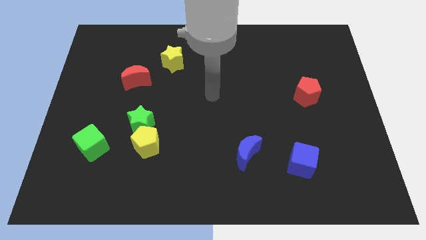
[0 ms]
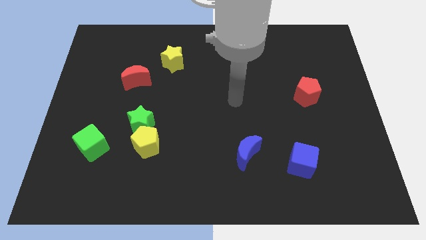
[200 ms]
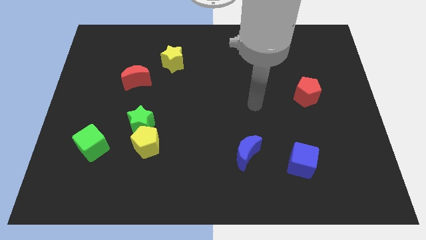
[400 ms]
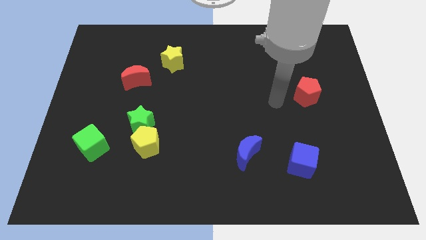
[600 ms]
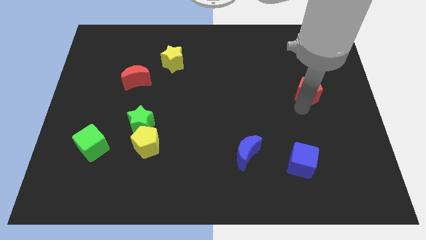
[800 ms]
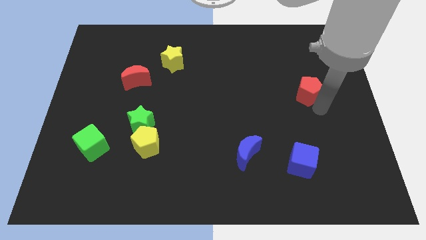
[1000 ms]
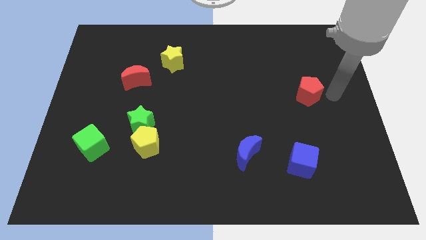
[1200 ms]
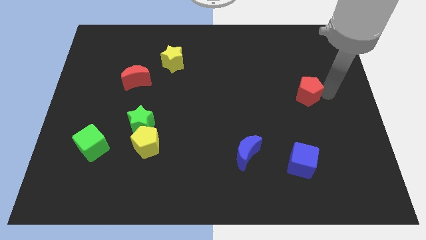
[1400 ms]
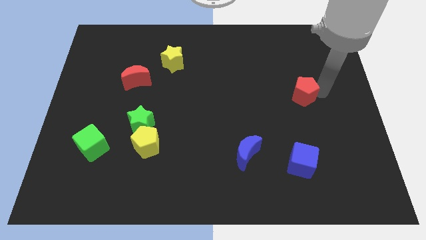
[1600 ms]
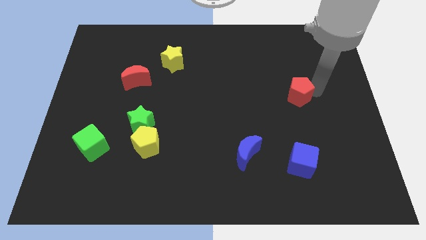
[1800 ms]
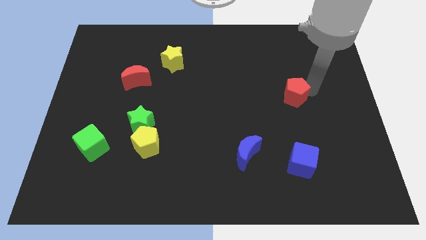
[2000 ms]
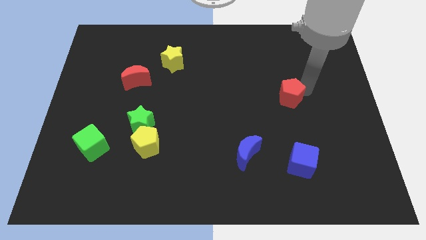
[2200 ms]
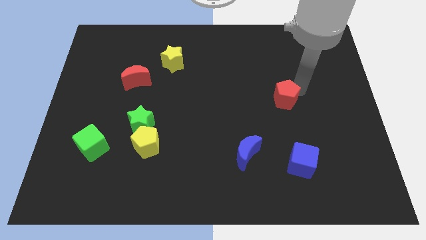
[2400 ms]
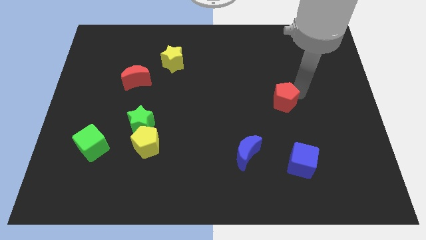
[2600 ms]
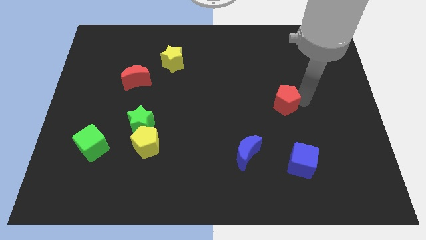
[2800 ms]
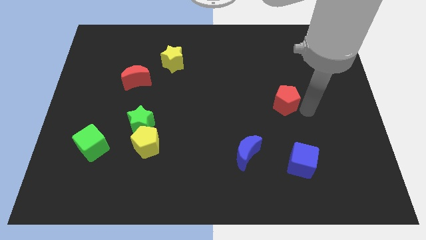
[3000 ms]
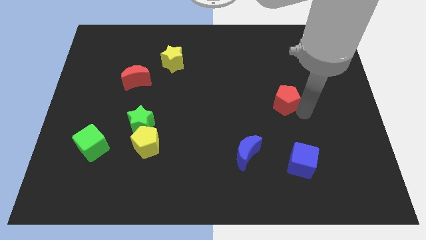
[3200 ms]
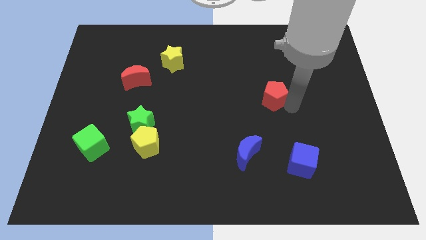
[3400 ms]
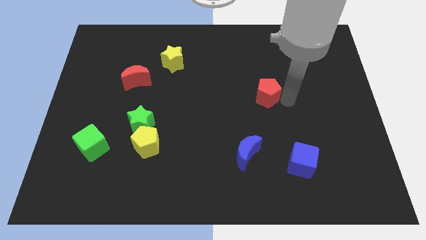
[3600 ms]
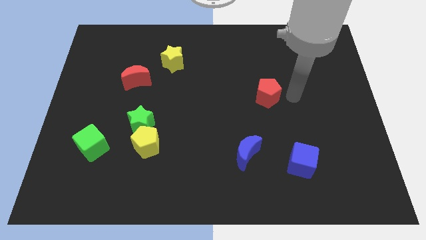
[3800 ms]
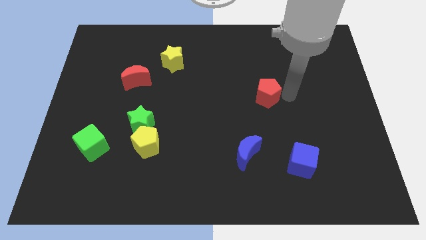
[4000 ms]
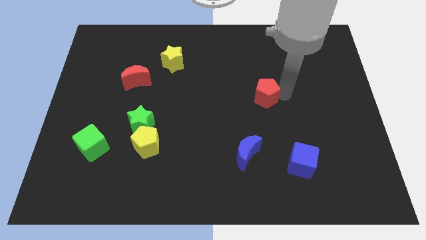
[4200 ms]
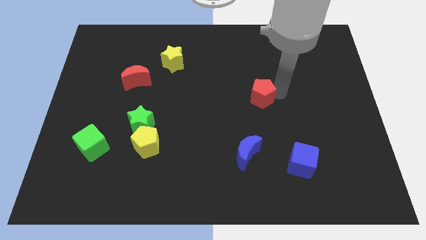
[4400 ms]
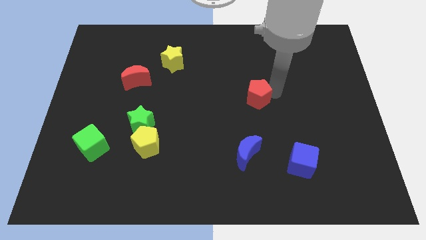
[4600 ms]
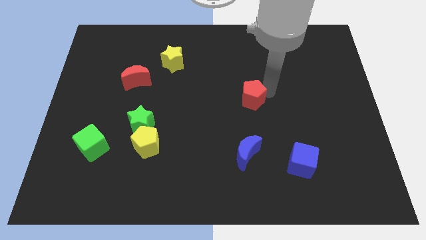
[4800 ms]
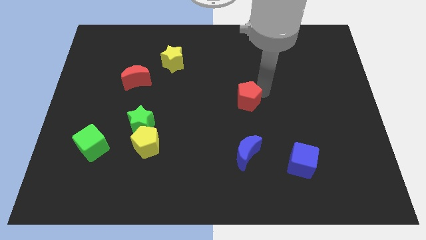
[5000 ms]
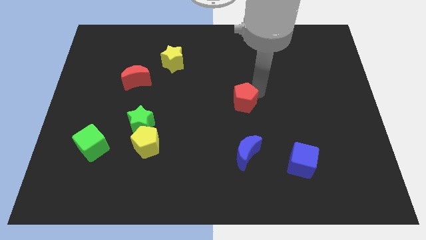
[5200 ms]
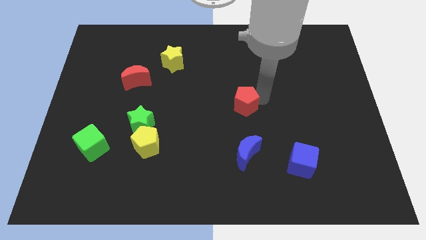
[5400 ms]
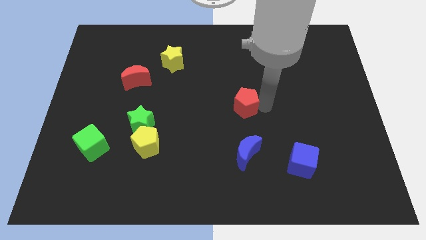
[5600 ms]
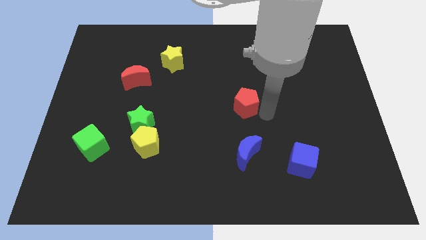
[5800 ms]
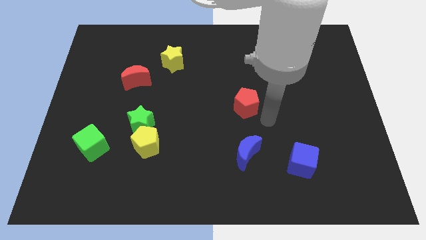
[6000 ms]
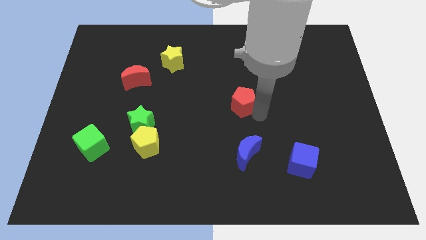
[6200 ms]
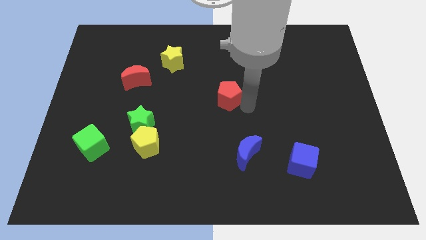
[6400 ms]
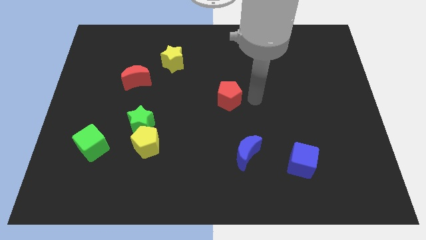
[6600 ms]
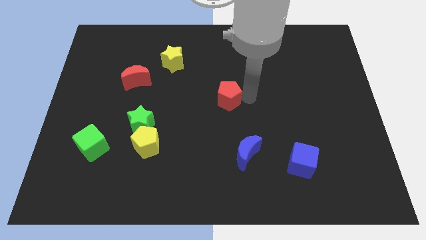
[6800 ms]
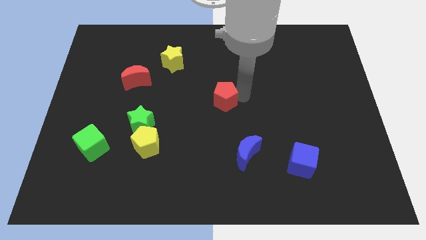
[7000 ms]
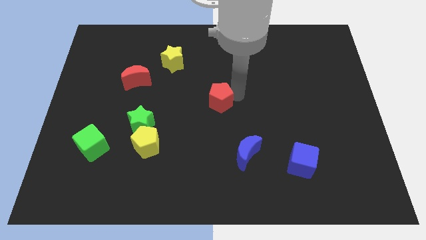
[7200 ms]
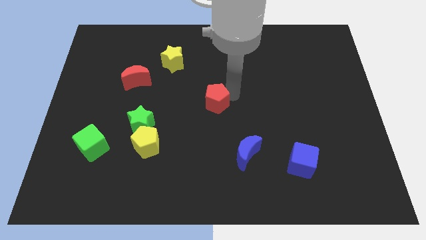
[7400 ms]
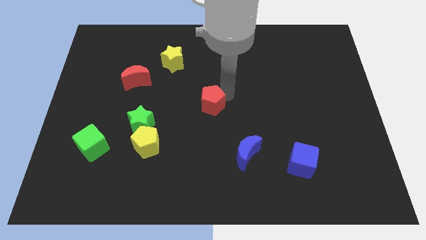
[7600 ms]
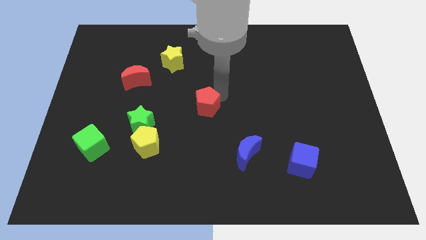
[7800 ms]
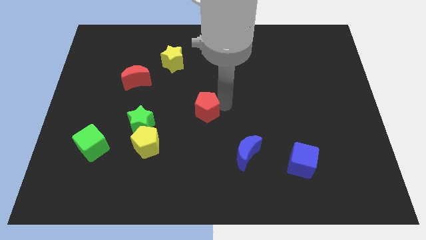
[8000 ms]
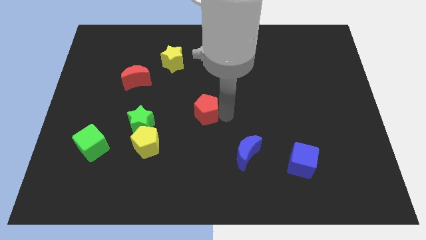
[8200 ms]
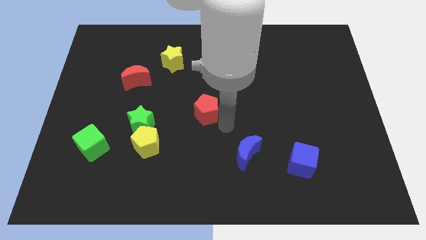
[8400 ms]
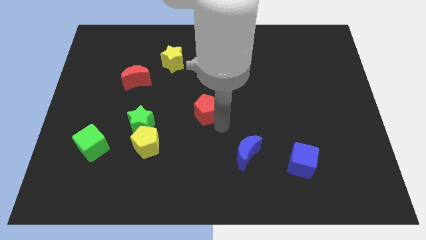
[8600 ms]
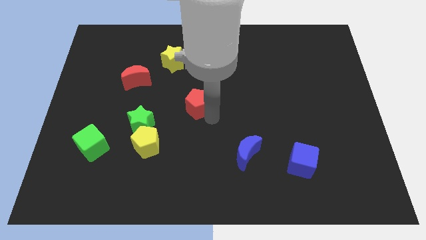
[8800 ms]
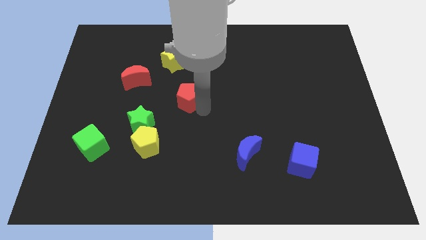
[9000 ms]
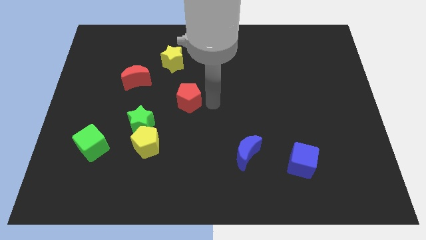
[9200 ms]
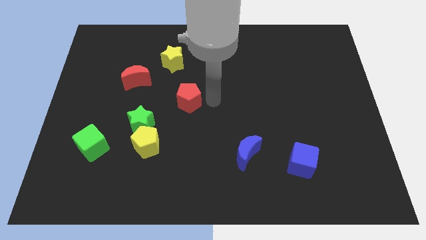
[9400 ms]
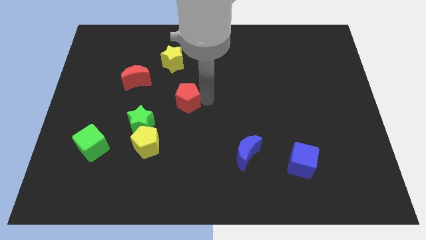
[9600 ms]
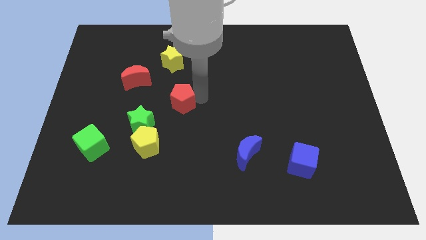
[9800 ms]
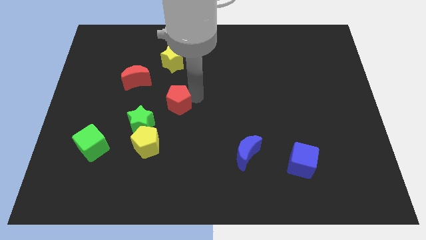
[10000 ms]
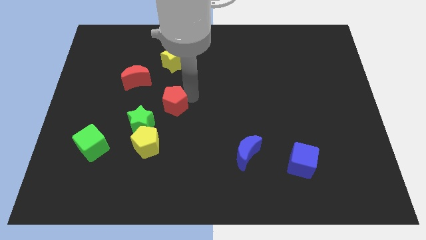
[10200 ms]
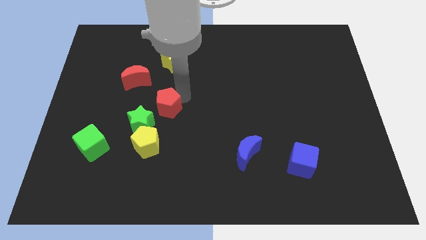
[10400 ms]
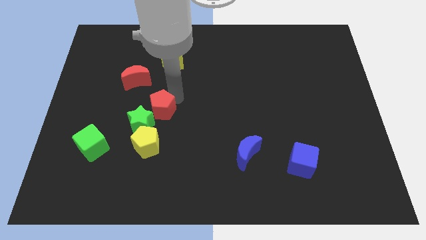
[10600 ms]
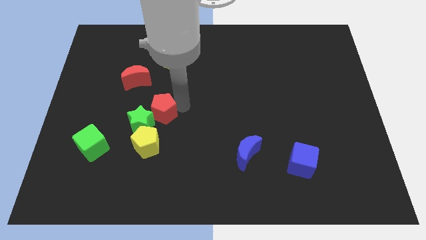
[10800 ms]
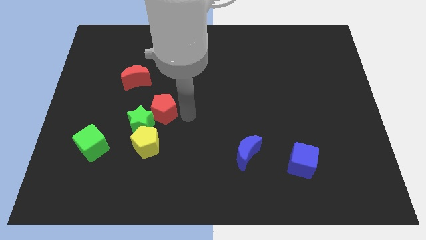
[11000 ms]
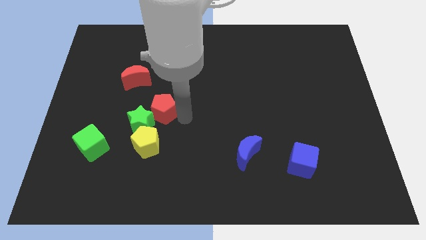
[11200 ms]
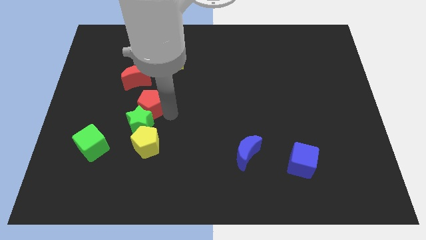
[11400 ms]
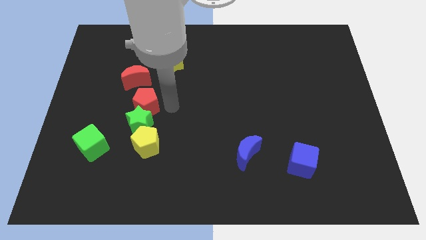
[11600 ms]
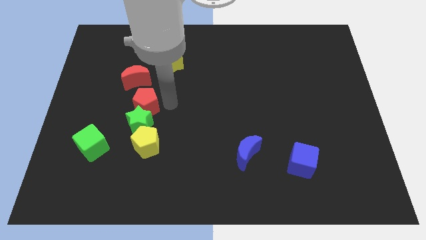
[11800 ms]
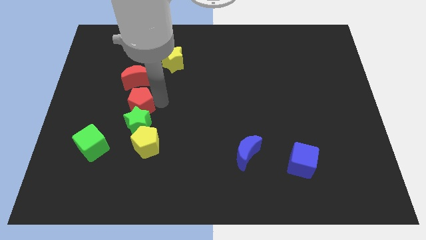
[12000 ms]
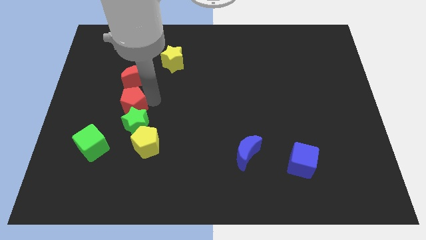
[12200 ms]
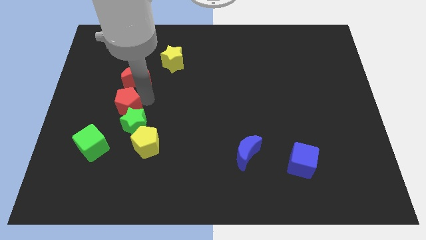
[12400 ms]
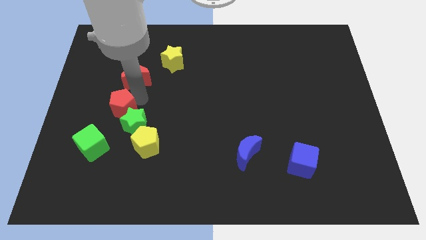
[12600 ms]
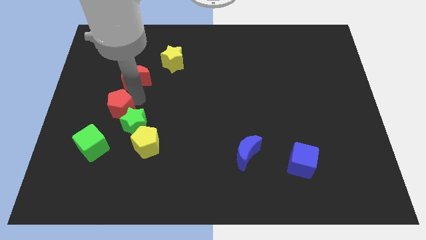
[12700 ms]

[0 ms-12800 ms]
put the red pentagon to the top side of the green cube
